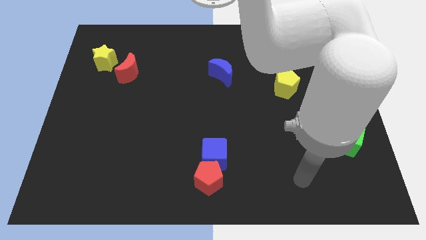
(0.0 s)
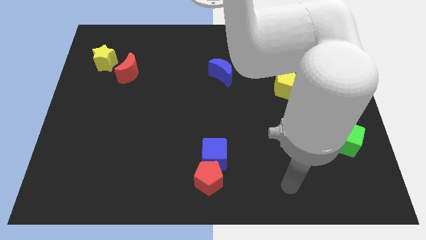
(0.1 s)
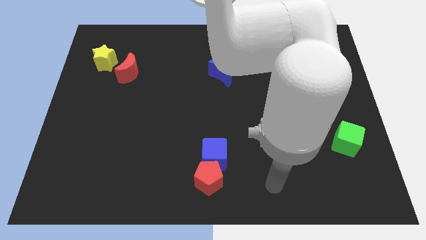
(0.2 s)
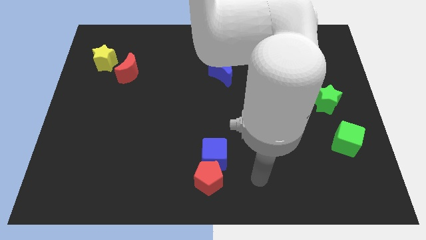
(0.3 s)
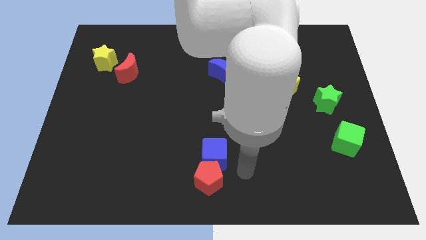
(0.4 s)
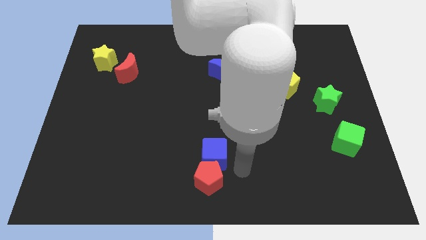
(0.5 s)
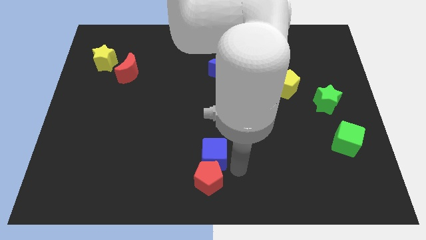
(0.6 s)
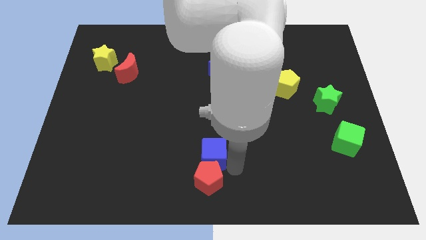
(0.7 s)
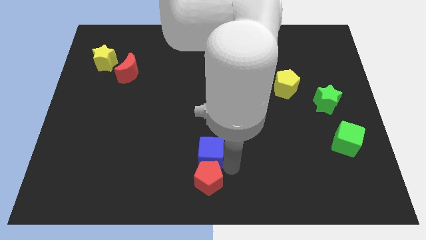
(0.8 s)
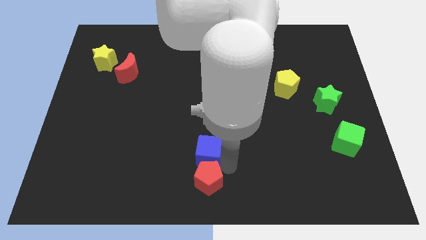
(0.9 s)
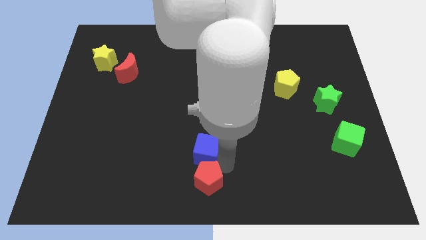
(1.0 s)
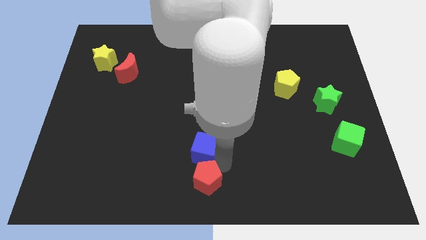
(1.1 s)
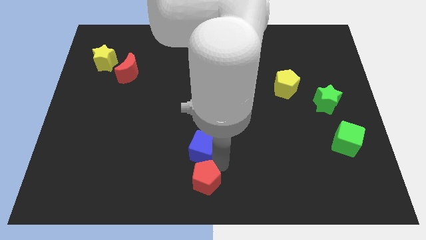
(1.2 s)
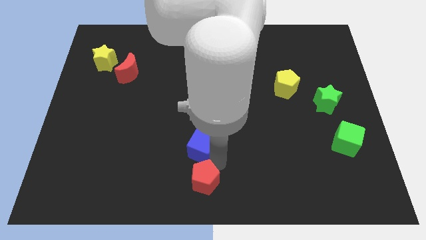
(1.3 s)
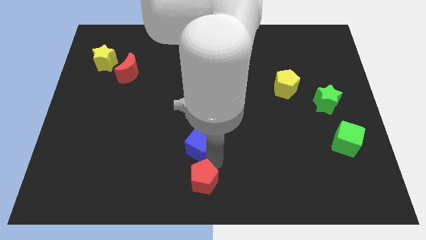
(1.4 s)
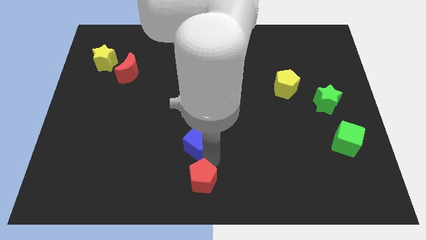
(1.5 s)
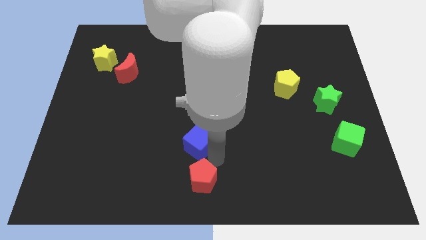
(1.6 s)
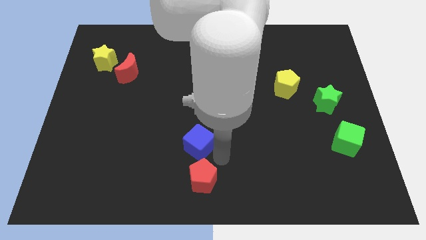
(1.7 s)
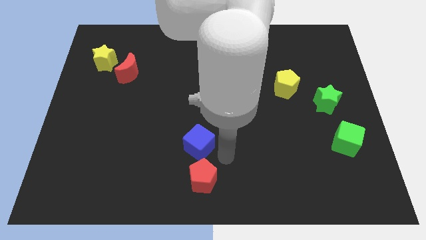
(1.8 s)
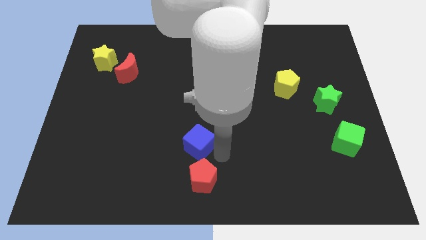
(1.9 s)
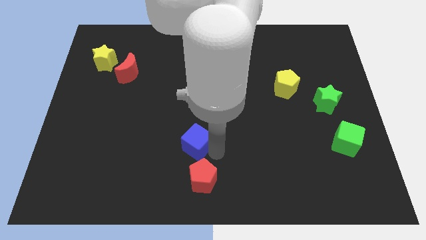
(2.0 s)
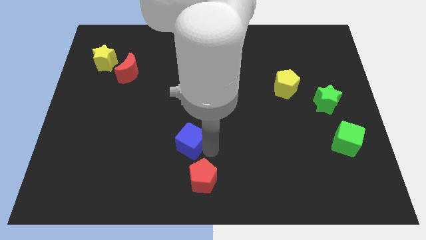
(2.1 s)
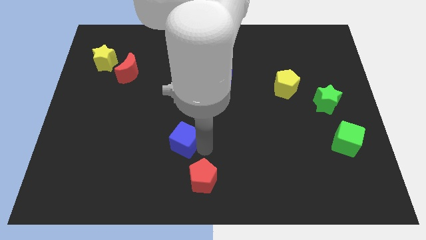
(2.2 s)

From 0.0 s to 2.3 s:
slide the blue cube a little bit up and then left

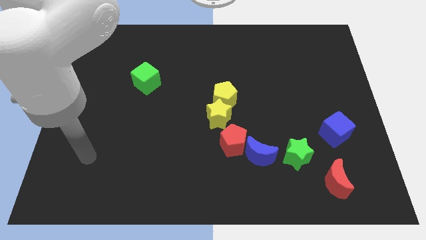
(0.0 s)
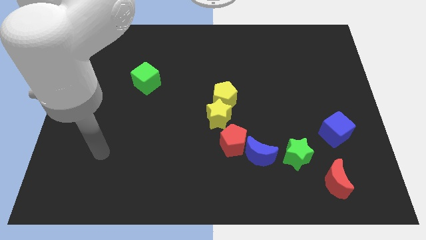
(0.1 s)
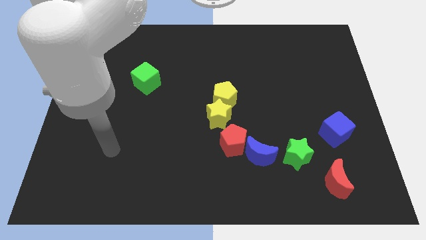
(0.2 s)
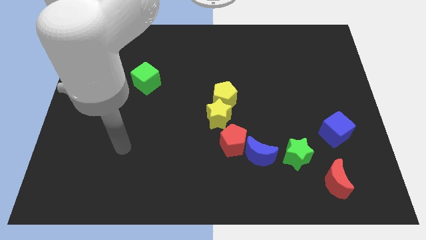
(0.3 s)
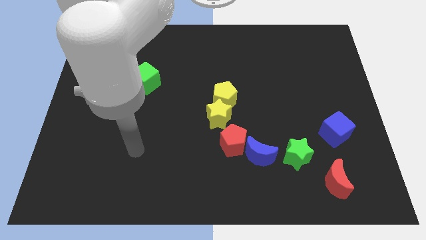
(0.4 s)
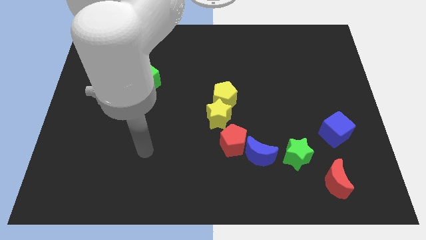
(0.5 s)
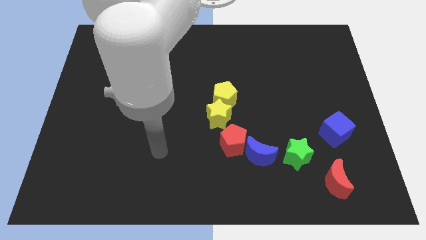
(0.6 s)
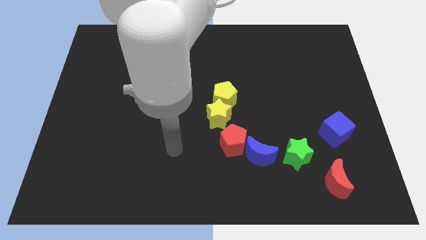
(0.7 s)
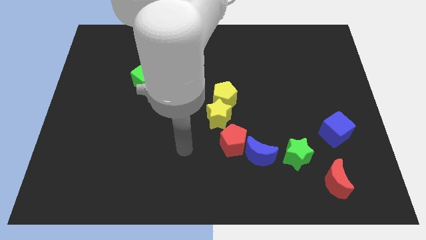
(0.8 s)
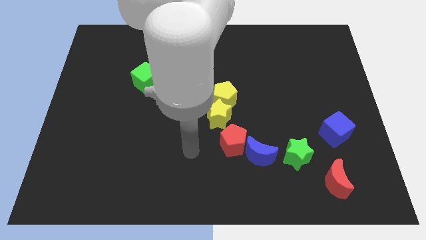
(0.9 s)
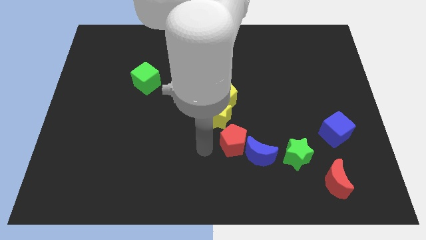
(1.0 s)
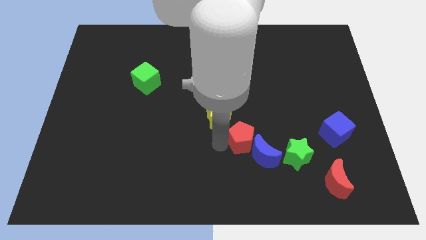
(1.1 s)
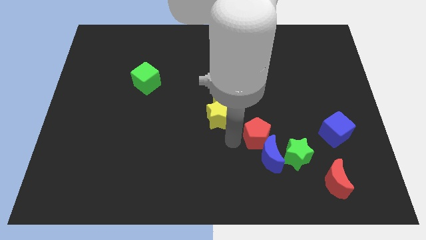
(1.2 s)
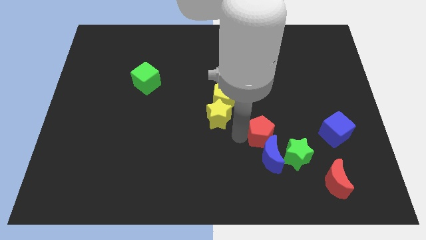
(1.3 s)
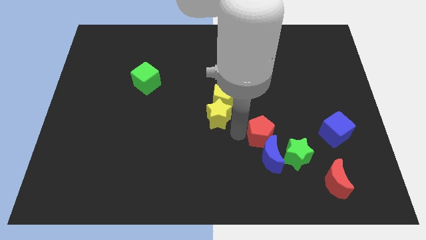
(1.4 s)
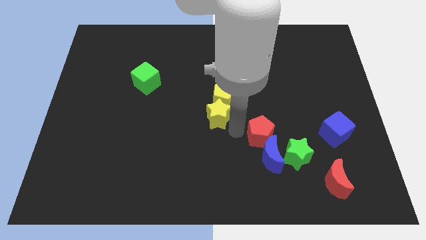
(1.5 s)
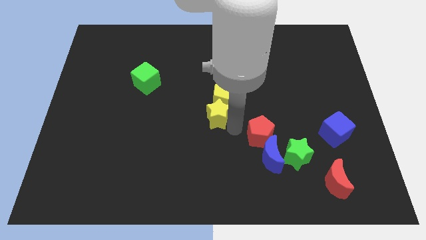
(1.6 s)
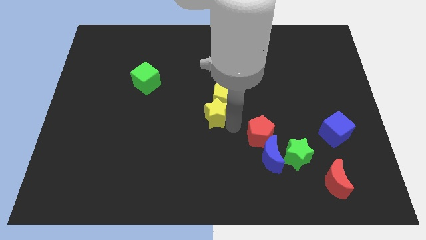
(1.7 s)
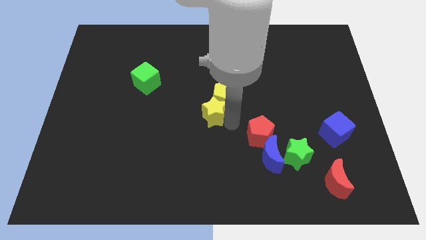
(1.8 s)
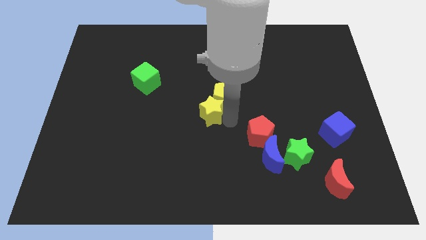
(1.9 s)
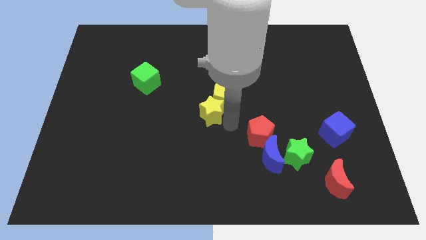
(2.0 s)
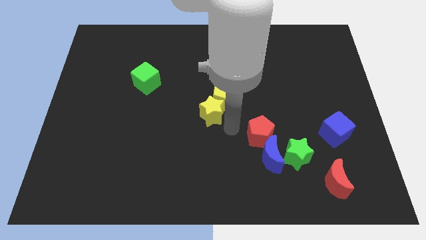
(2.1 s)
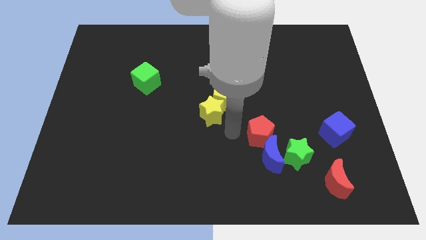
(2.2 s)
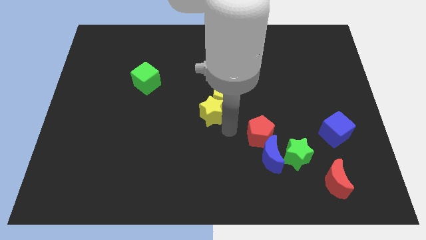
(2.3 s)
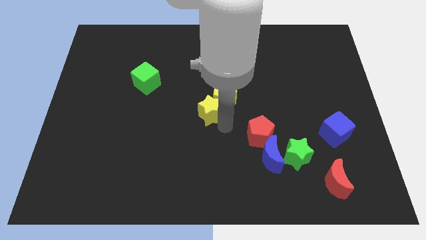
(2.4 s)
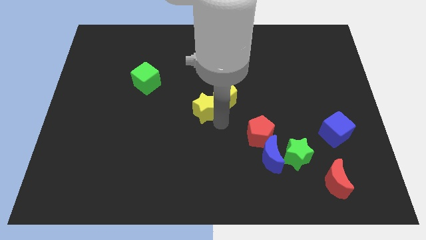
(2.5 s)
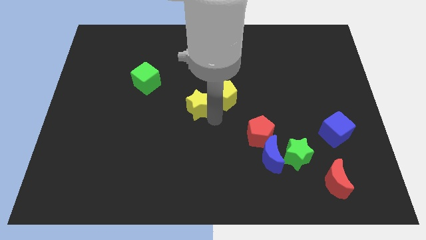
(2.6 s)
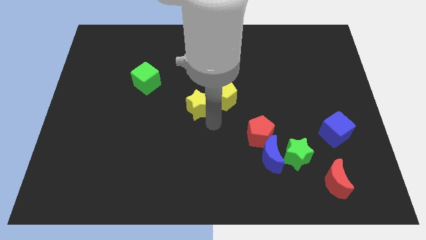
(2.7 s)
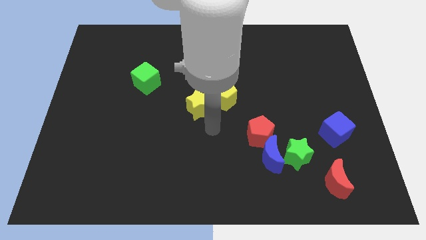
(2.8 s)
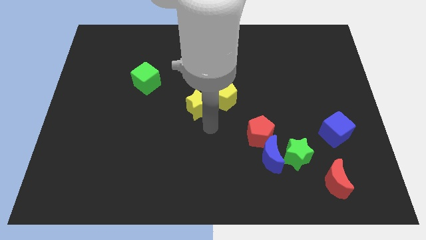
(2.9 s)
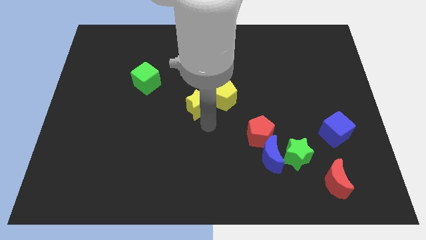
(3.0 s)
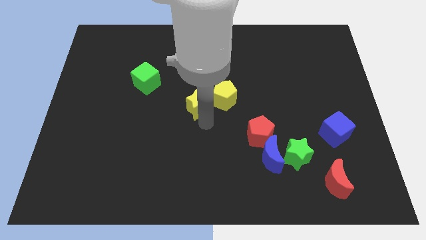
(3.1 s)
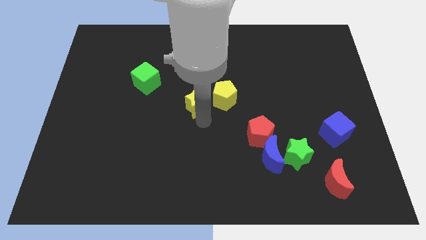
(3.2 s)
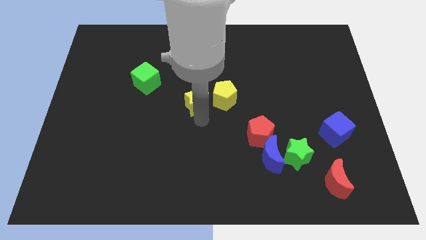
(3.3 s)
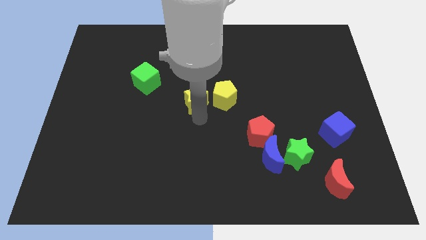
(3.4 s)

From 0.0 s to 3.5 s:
move the yellow star upwards and left a bit

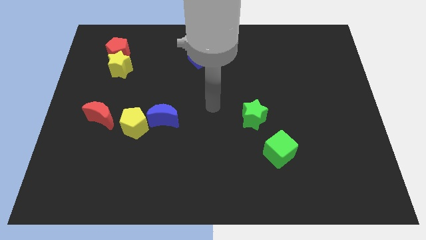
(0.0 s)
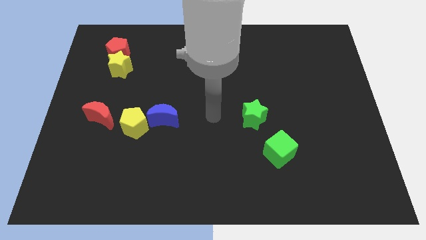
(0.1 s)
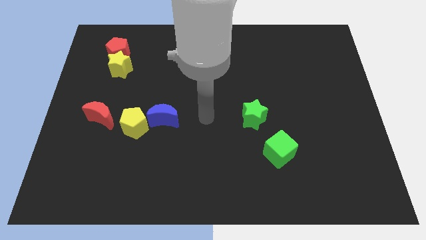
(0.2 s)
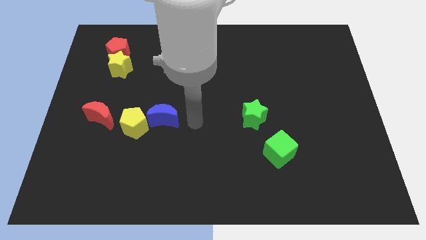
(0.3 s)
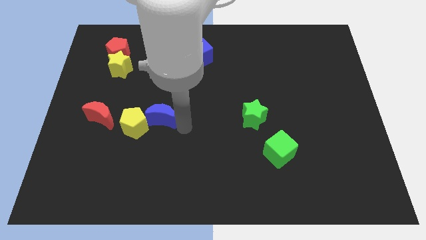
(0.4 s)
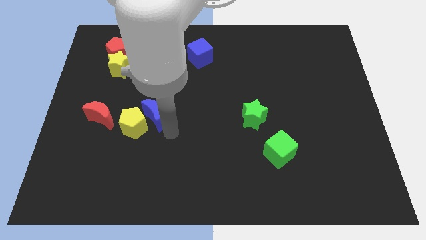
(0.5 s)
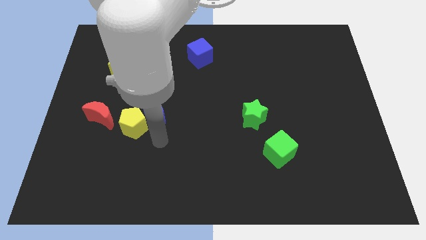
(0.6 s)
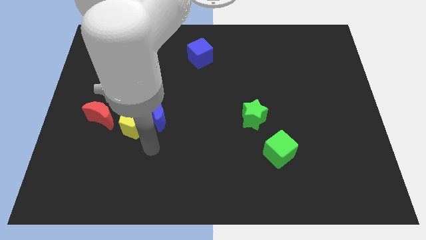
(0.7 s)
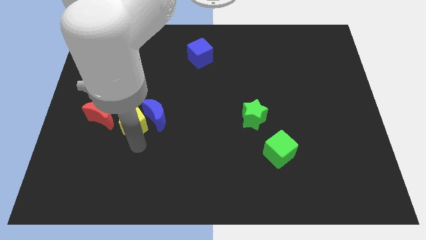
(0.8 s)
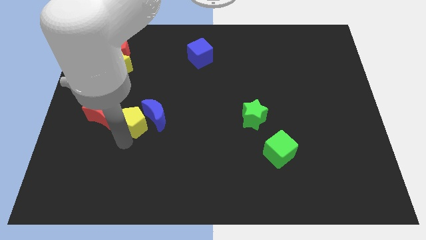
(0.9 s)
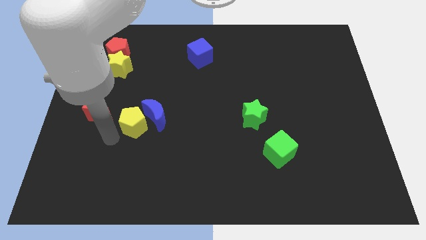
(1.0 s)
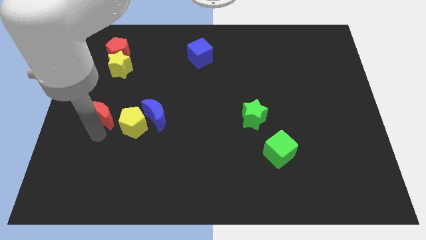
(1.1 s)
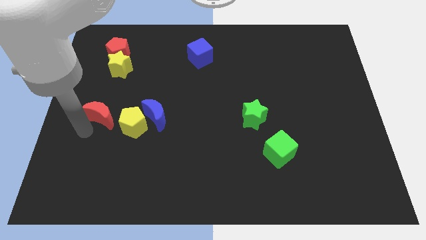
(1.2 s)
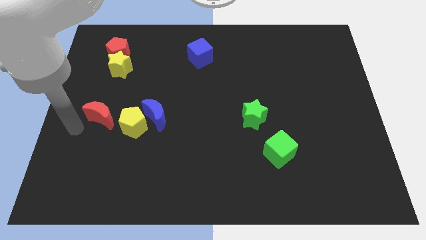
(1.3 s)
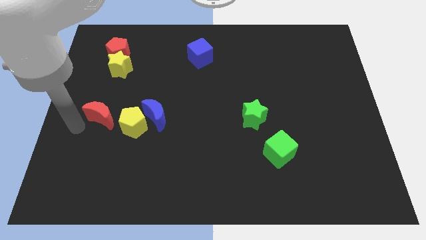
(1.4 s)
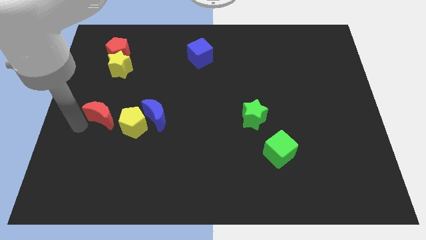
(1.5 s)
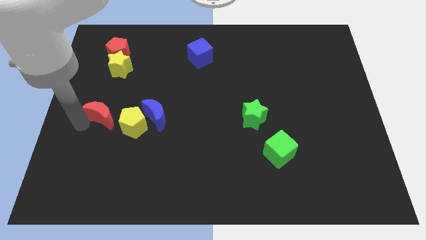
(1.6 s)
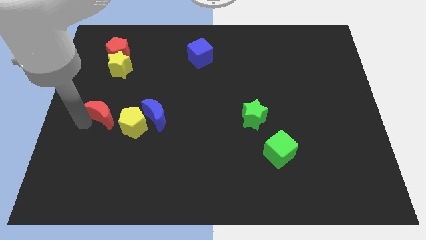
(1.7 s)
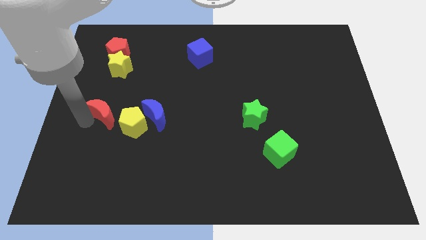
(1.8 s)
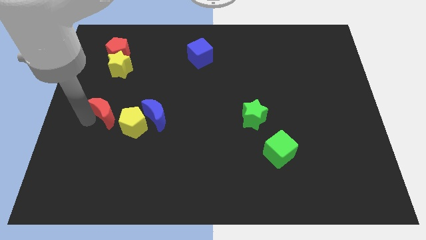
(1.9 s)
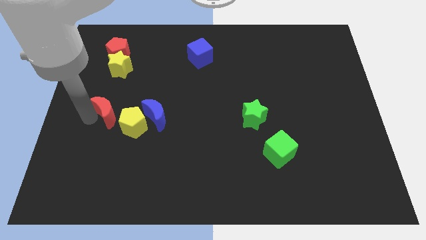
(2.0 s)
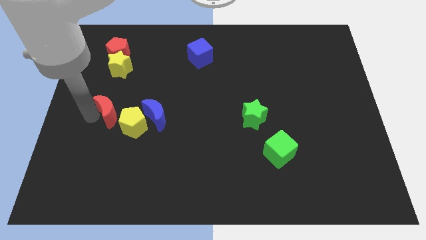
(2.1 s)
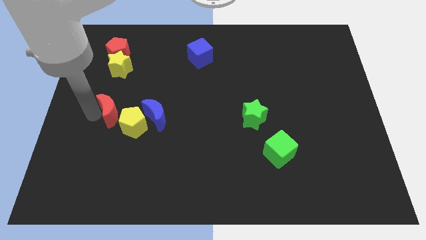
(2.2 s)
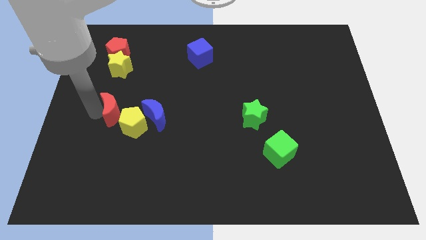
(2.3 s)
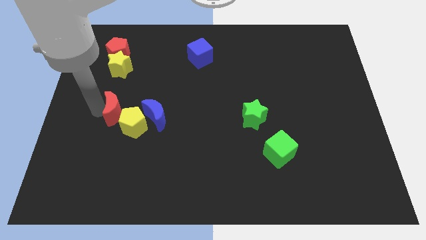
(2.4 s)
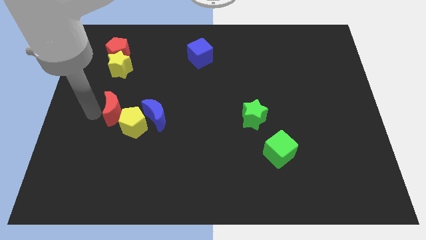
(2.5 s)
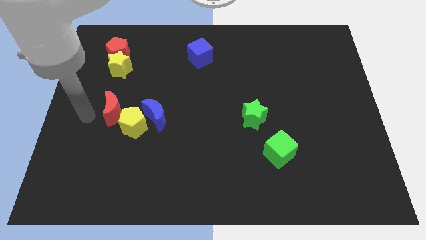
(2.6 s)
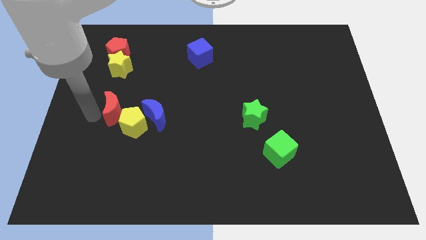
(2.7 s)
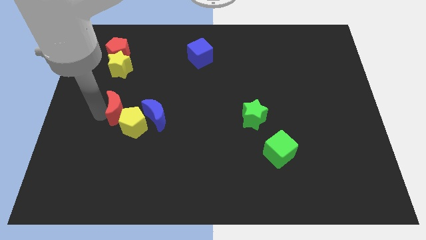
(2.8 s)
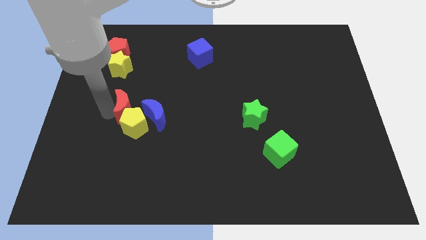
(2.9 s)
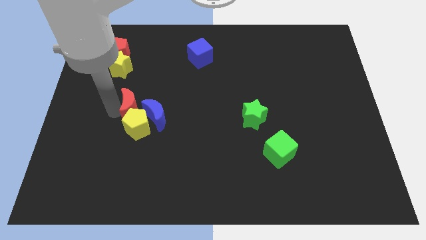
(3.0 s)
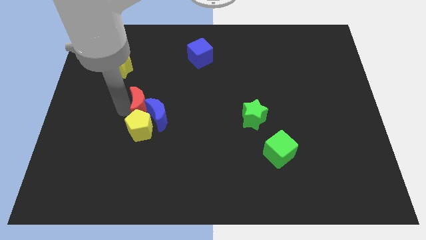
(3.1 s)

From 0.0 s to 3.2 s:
slightly slide the red moon right
